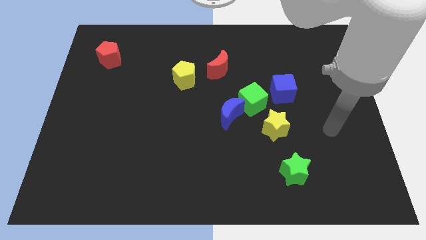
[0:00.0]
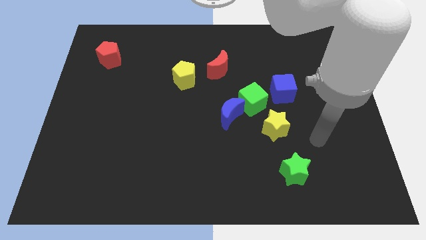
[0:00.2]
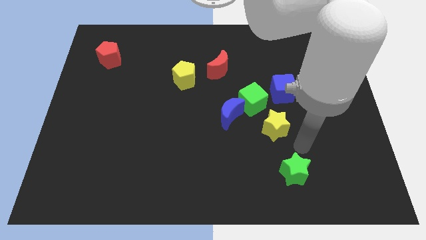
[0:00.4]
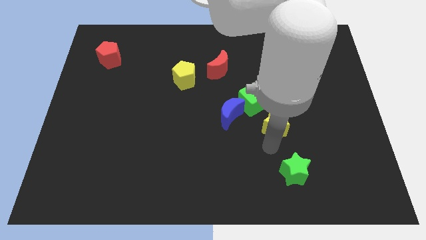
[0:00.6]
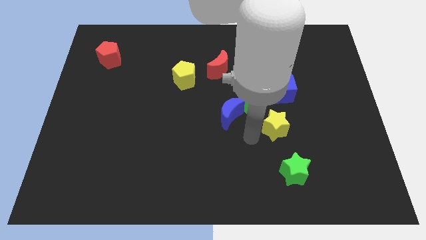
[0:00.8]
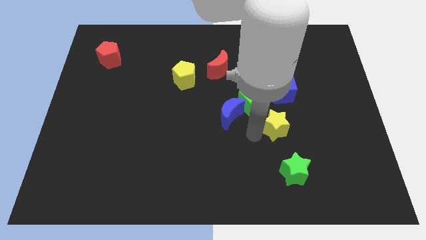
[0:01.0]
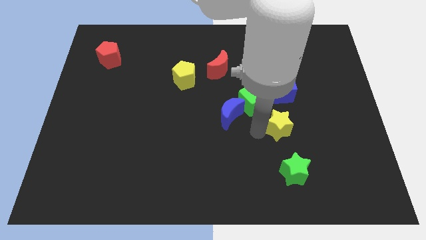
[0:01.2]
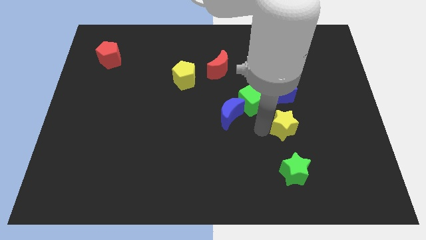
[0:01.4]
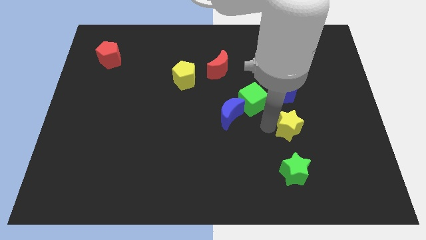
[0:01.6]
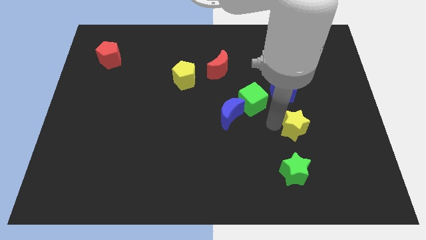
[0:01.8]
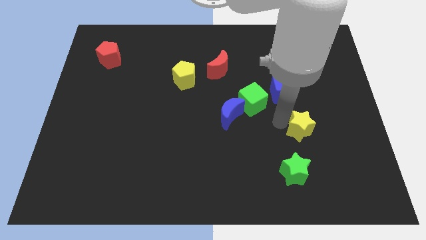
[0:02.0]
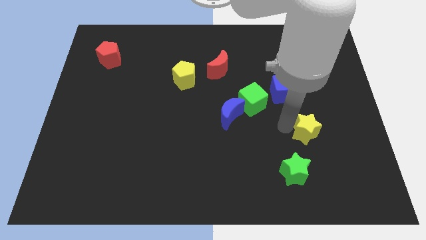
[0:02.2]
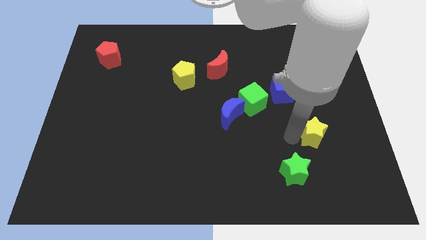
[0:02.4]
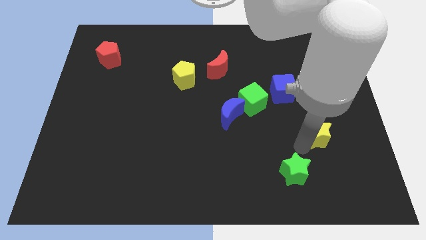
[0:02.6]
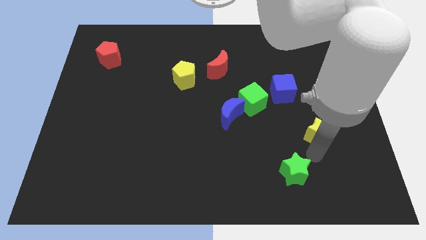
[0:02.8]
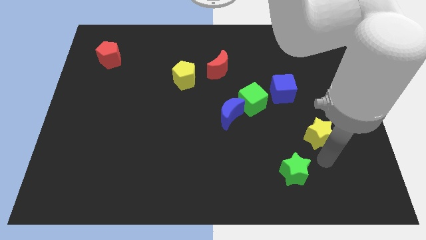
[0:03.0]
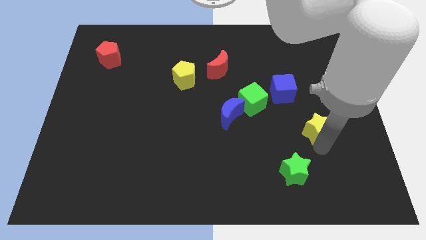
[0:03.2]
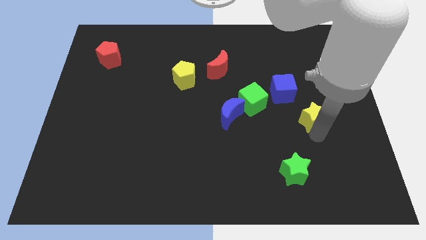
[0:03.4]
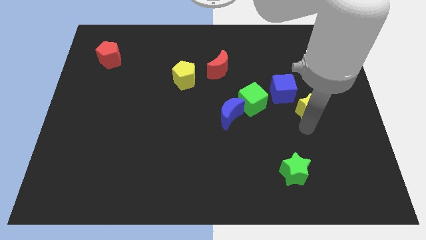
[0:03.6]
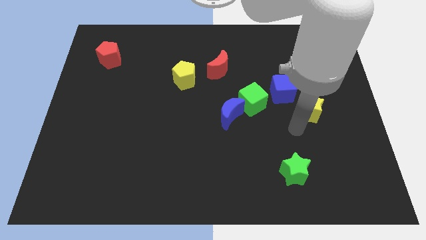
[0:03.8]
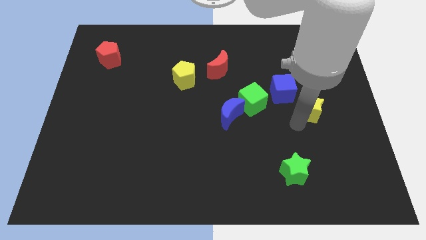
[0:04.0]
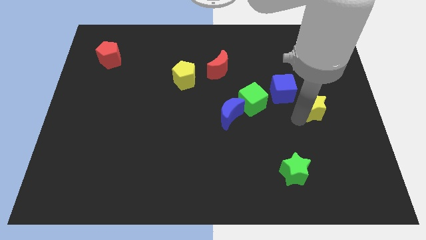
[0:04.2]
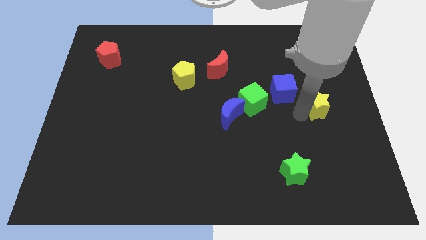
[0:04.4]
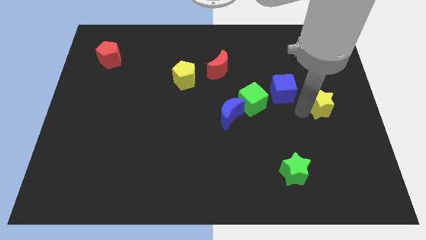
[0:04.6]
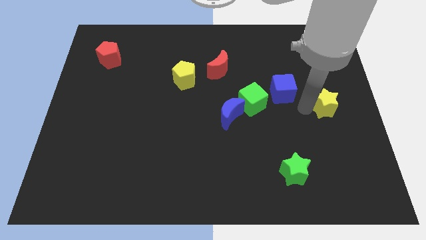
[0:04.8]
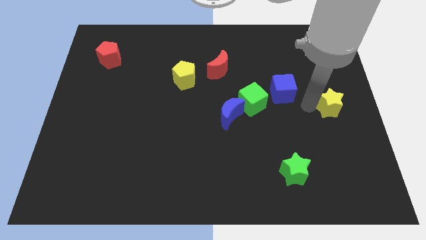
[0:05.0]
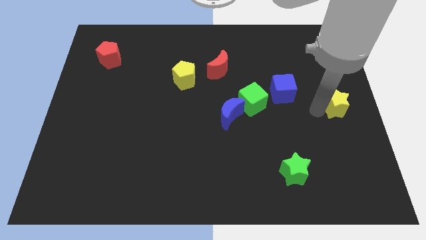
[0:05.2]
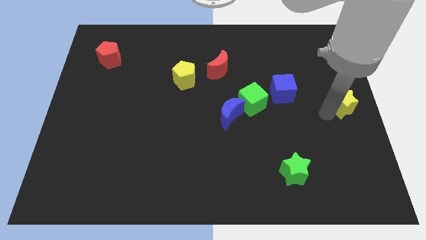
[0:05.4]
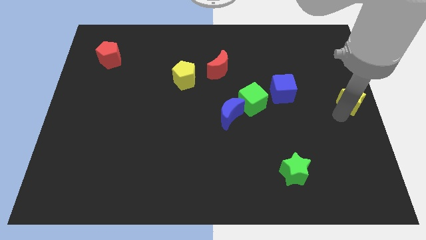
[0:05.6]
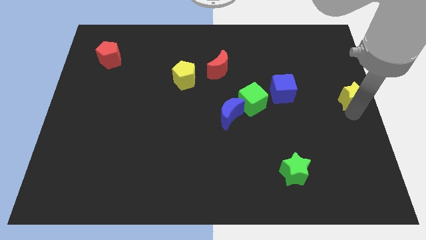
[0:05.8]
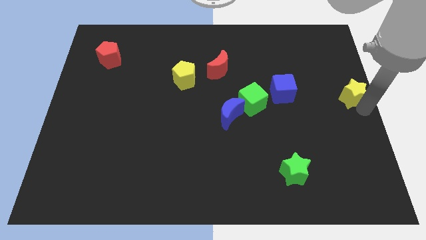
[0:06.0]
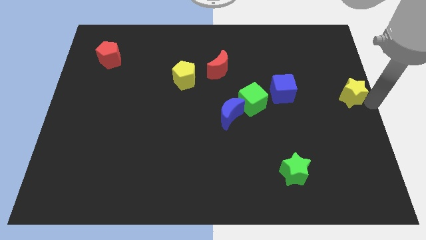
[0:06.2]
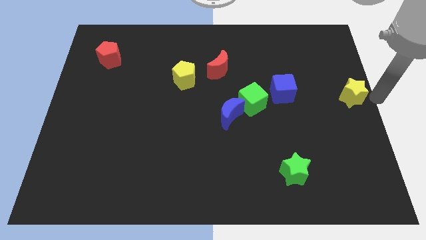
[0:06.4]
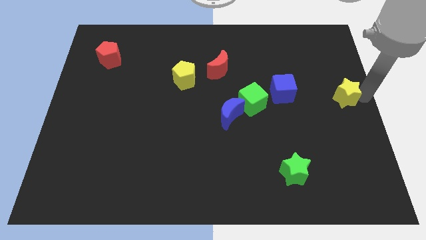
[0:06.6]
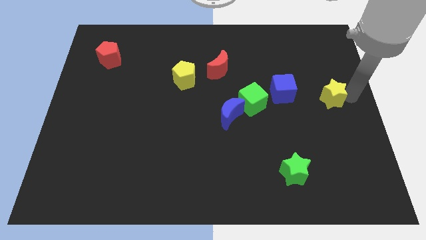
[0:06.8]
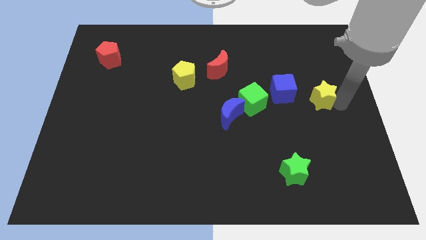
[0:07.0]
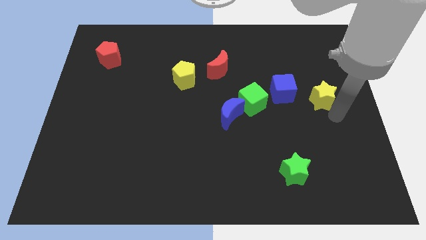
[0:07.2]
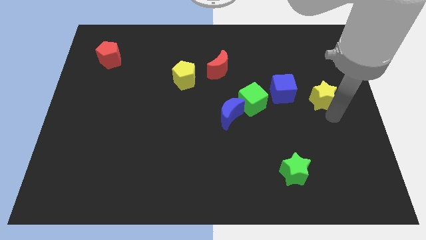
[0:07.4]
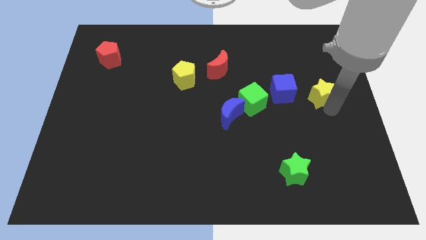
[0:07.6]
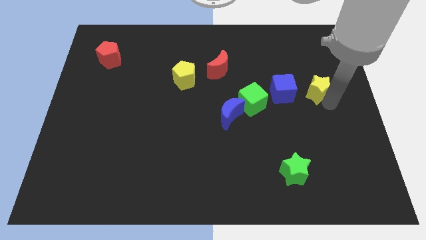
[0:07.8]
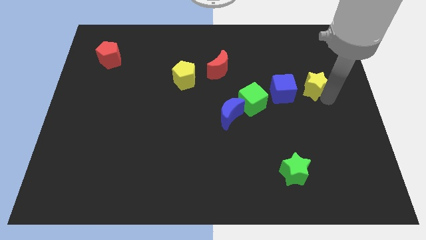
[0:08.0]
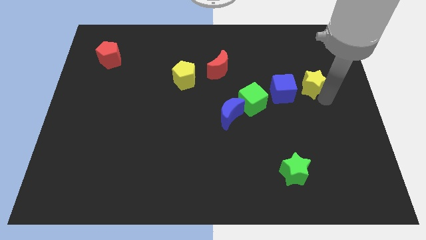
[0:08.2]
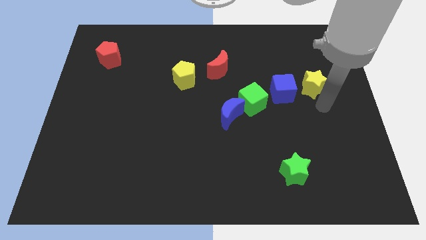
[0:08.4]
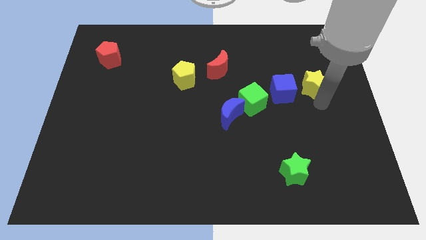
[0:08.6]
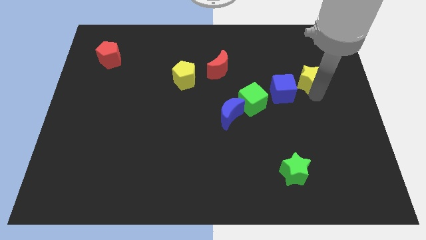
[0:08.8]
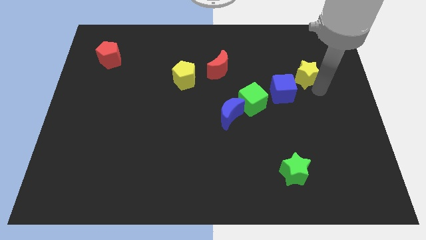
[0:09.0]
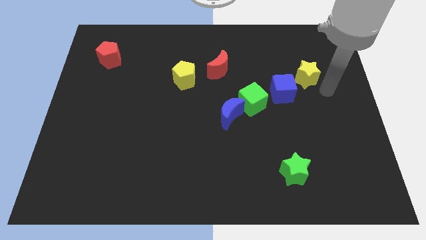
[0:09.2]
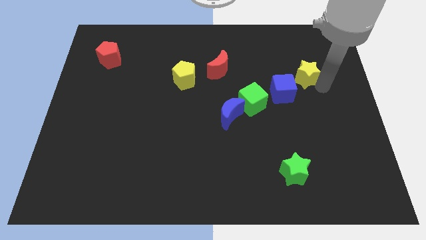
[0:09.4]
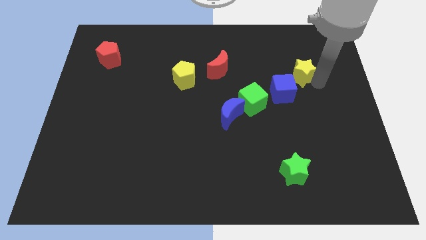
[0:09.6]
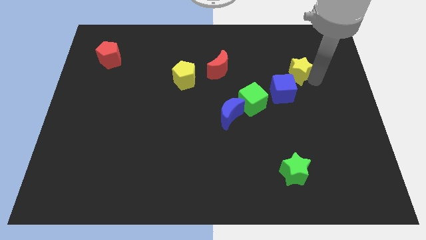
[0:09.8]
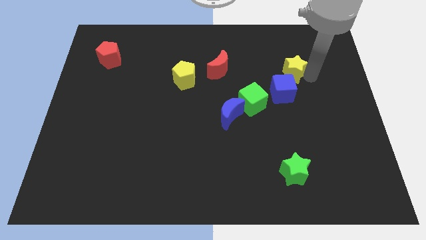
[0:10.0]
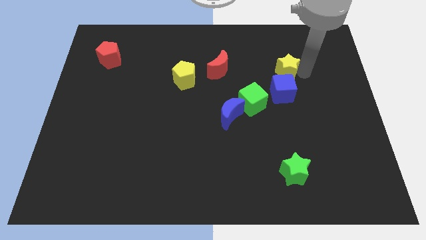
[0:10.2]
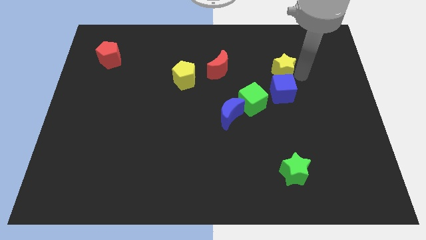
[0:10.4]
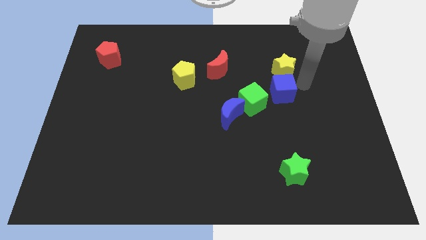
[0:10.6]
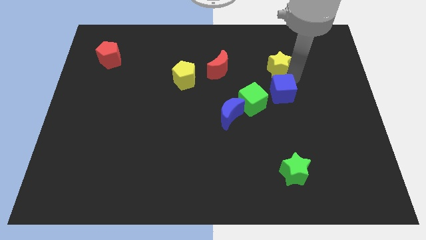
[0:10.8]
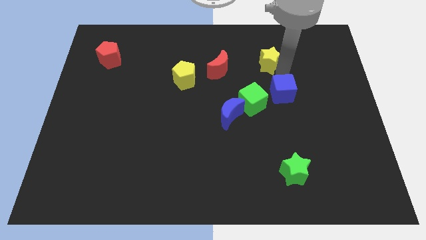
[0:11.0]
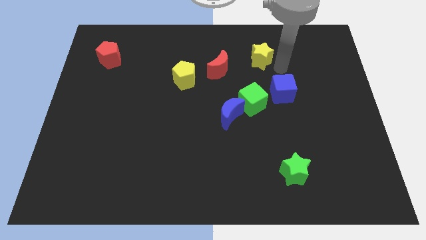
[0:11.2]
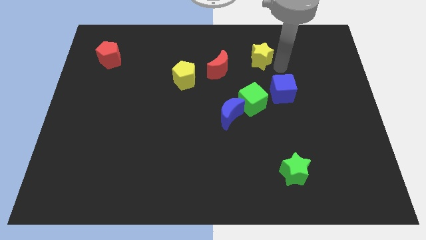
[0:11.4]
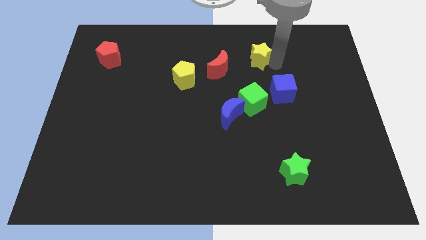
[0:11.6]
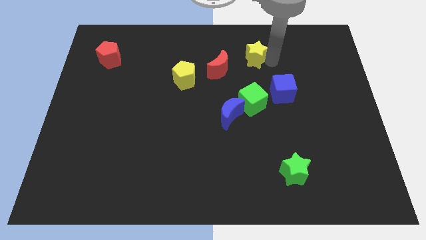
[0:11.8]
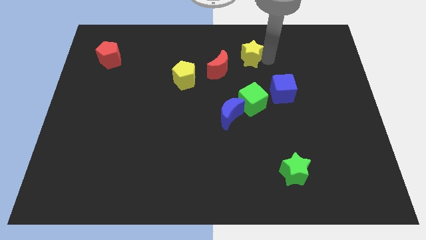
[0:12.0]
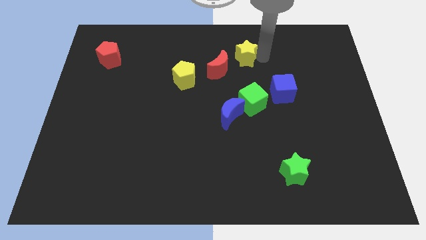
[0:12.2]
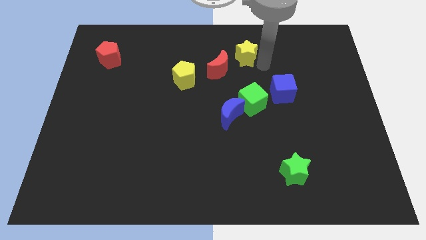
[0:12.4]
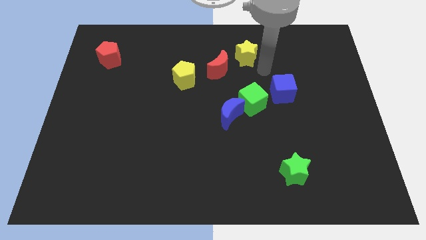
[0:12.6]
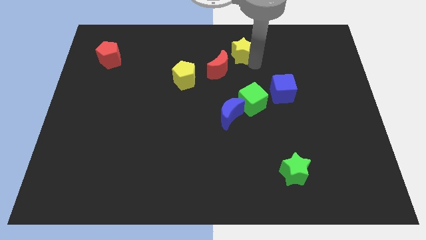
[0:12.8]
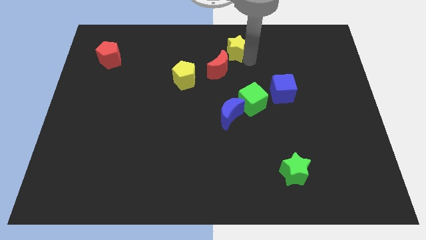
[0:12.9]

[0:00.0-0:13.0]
put the yellow star to the top side
